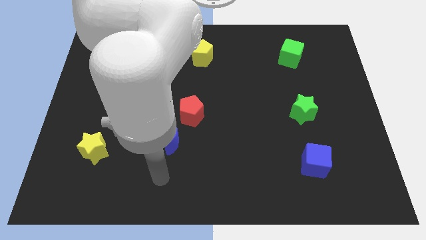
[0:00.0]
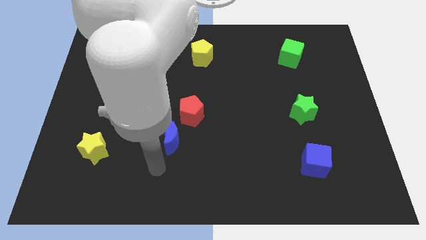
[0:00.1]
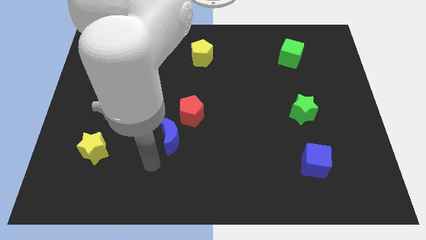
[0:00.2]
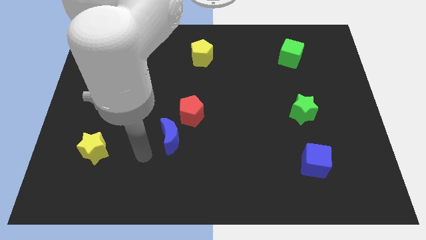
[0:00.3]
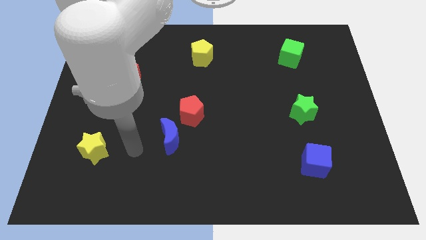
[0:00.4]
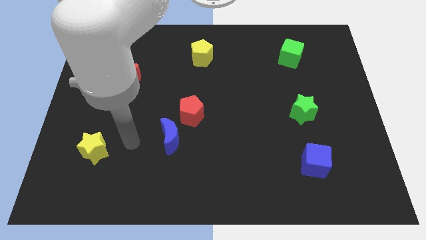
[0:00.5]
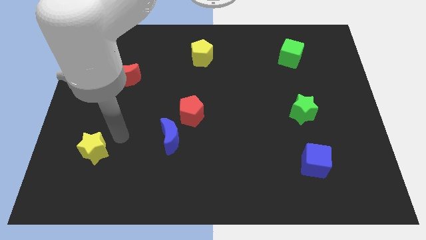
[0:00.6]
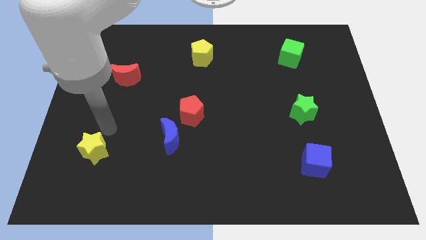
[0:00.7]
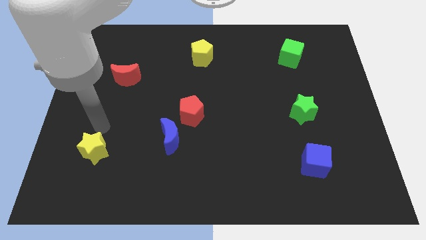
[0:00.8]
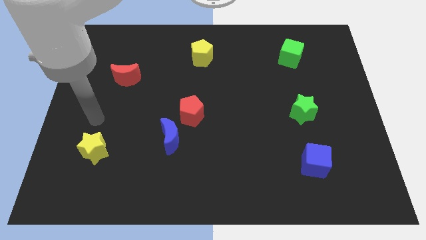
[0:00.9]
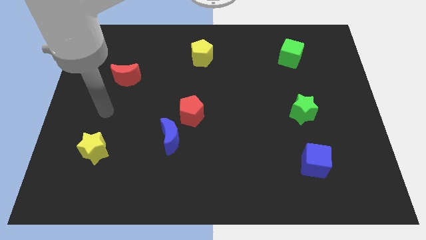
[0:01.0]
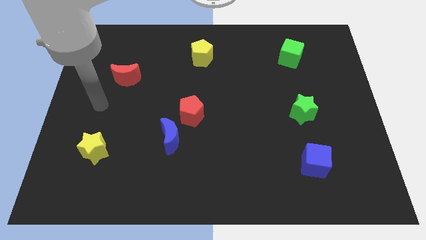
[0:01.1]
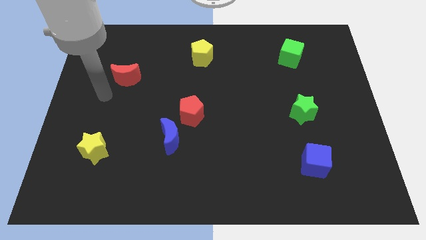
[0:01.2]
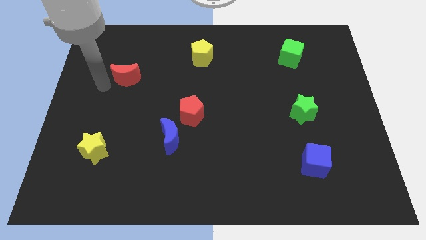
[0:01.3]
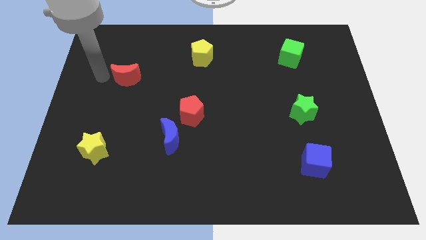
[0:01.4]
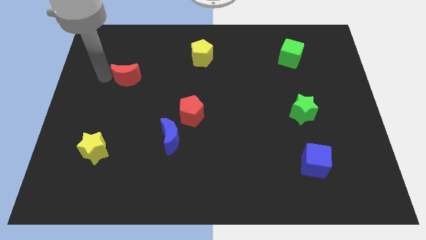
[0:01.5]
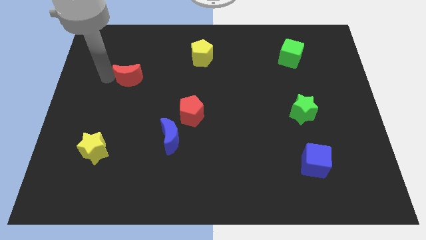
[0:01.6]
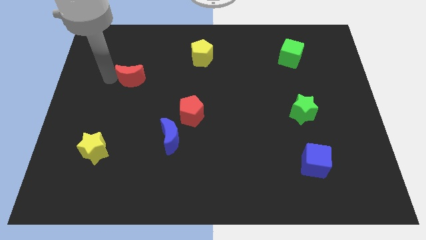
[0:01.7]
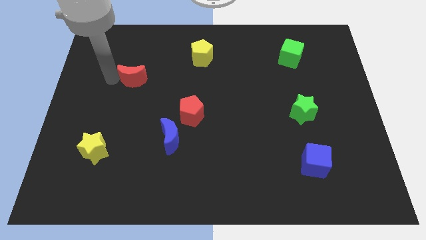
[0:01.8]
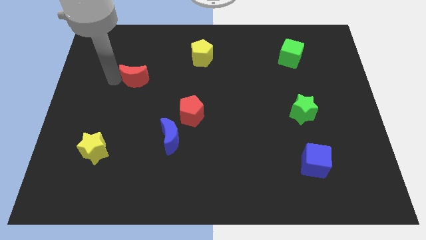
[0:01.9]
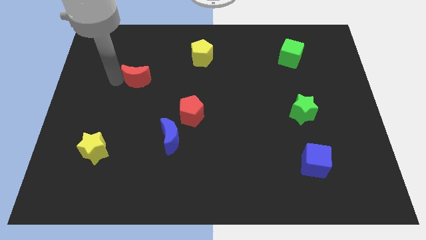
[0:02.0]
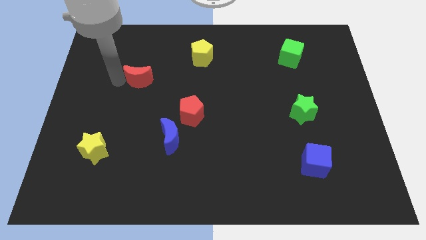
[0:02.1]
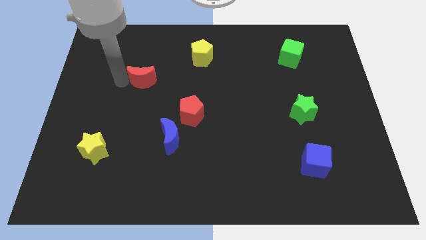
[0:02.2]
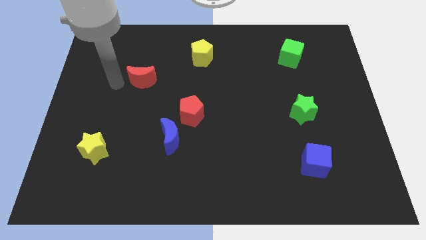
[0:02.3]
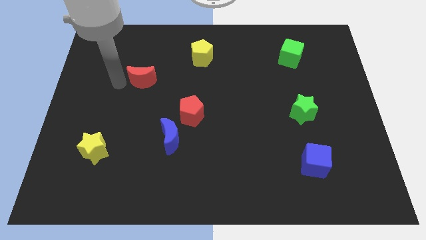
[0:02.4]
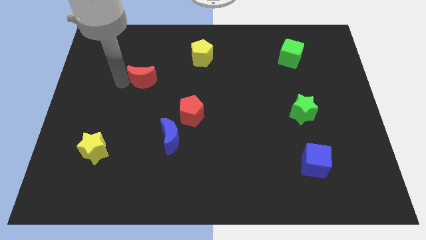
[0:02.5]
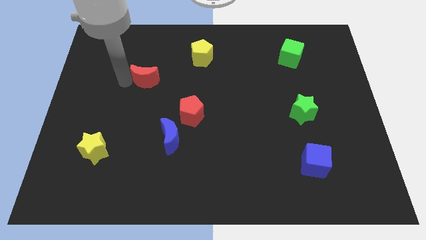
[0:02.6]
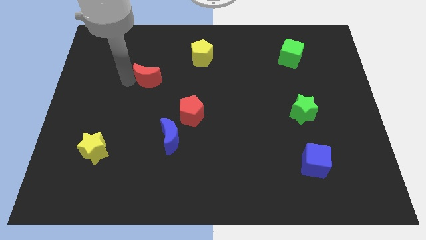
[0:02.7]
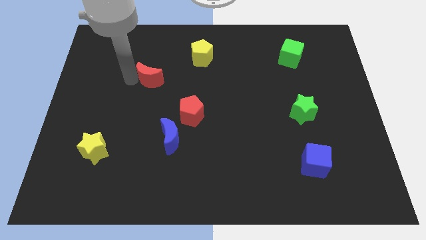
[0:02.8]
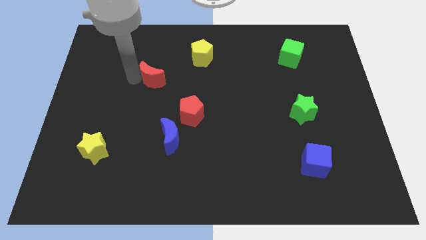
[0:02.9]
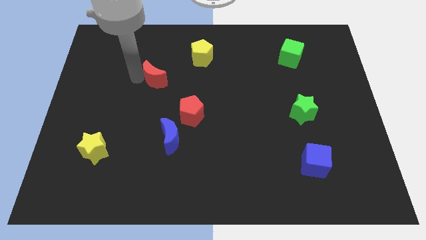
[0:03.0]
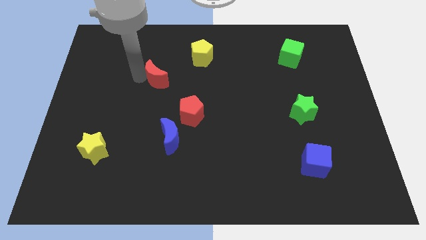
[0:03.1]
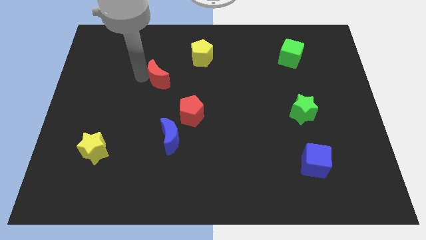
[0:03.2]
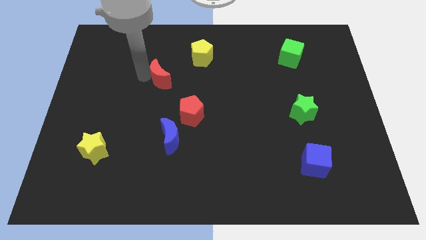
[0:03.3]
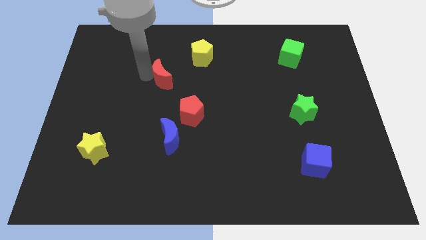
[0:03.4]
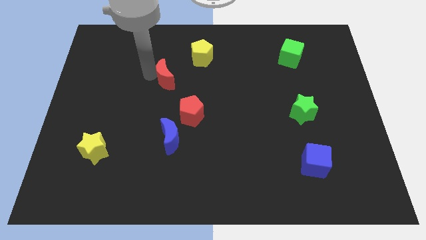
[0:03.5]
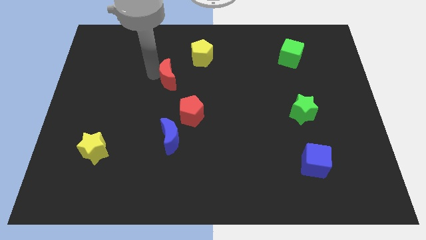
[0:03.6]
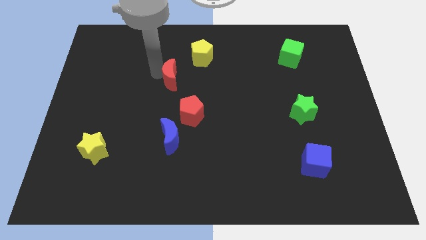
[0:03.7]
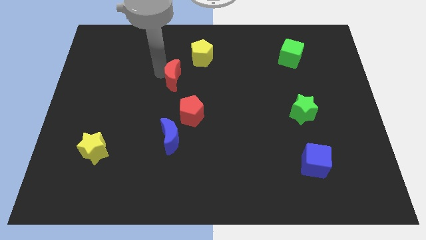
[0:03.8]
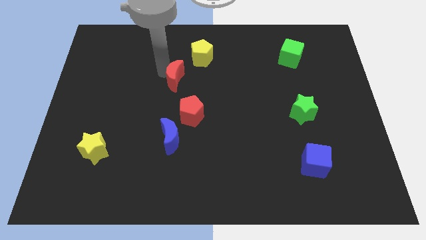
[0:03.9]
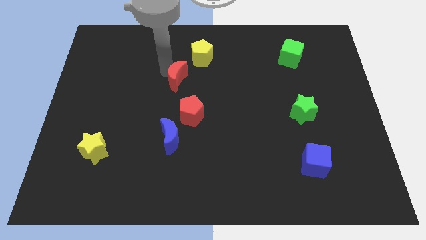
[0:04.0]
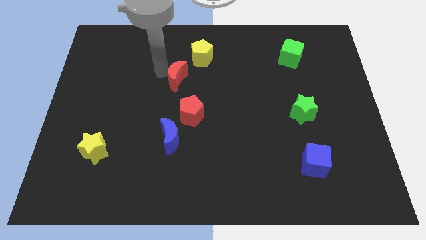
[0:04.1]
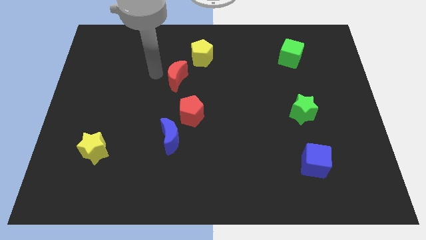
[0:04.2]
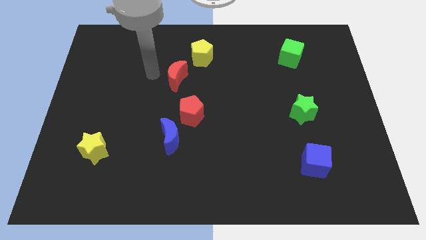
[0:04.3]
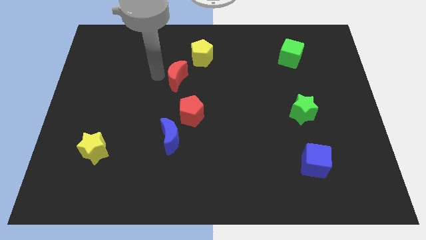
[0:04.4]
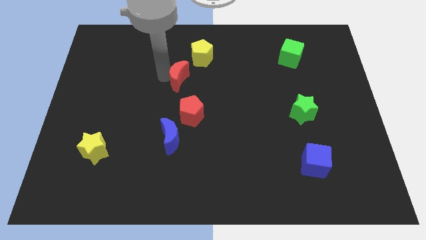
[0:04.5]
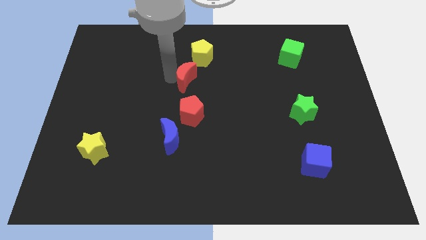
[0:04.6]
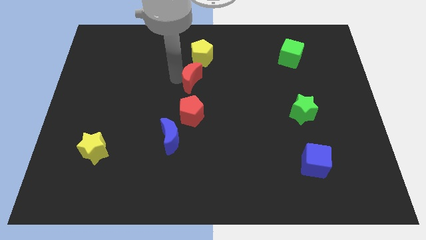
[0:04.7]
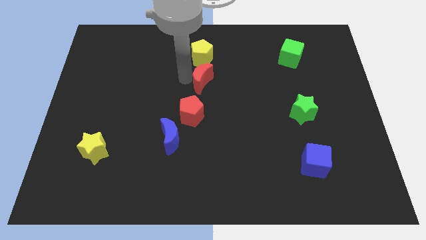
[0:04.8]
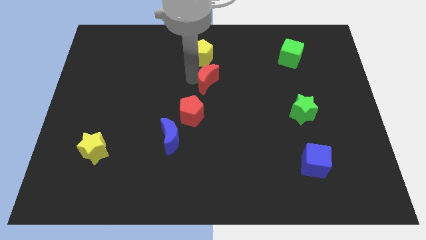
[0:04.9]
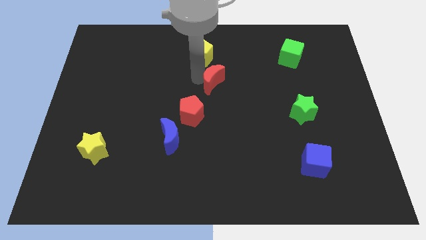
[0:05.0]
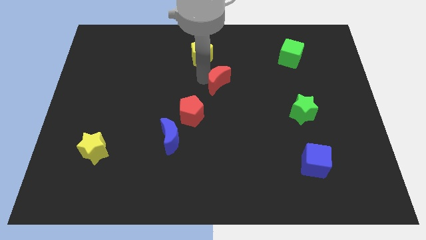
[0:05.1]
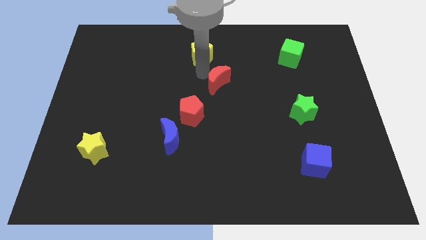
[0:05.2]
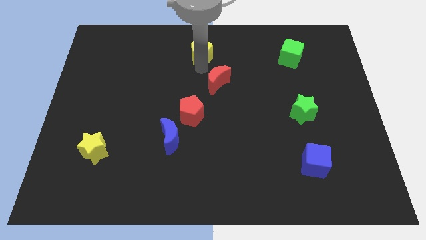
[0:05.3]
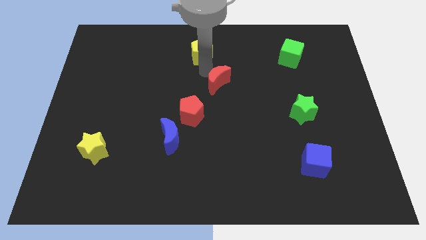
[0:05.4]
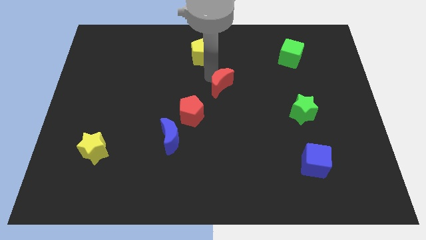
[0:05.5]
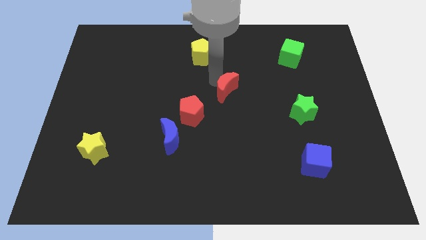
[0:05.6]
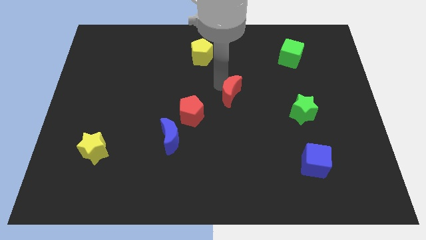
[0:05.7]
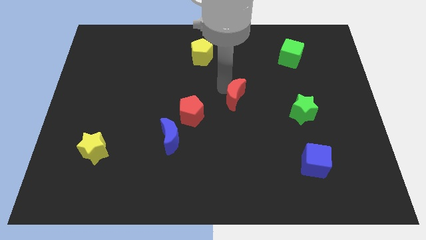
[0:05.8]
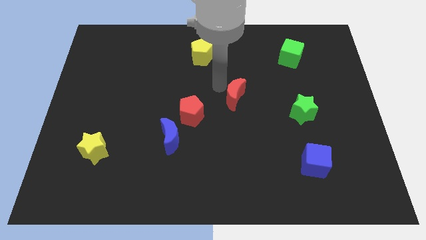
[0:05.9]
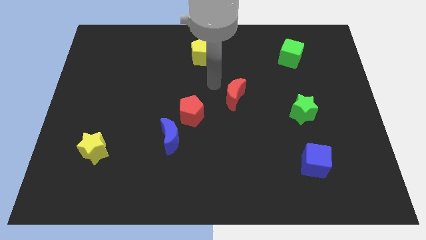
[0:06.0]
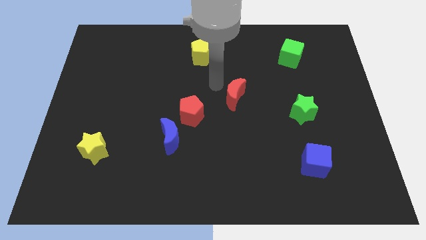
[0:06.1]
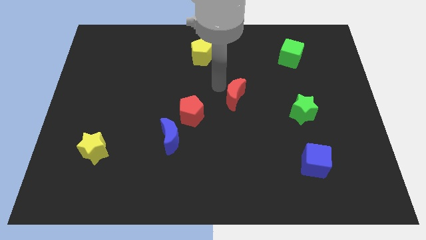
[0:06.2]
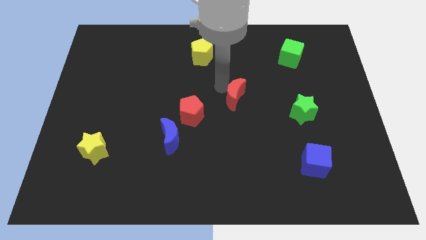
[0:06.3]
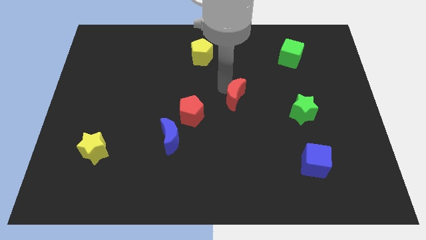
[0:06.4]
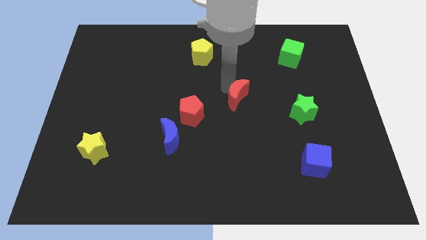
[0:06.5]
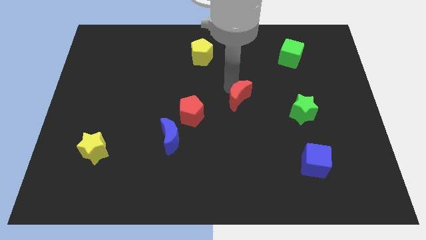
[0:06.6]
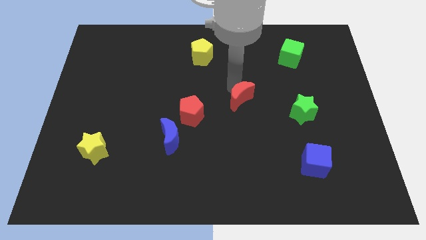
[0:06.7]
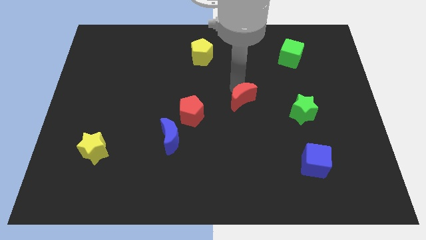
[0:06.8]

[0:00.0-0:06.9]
push the red moon to the left of the green star
